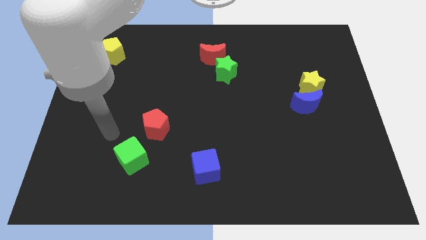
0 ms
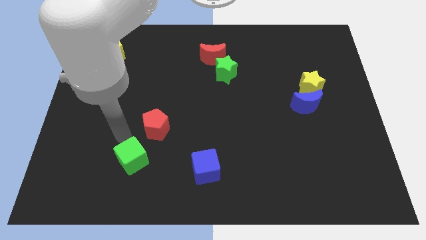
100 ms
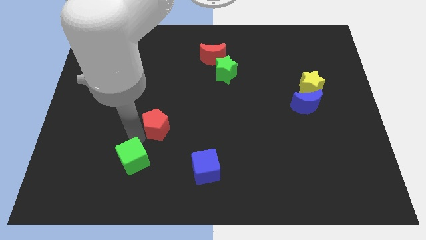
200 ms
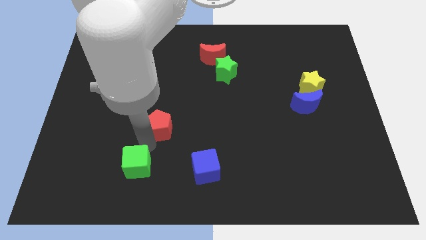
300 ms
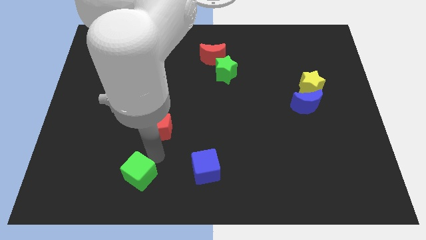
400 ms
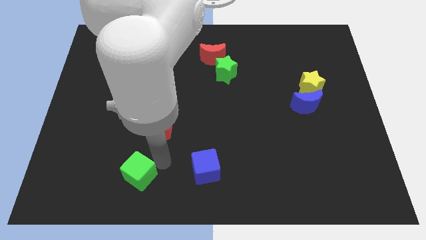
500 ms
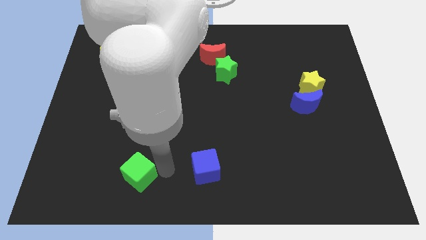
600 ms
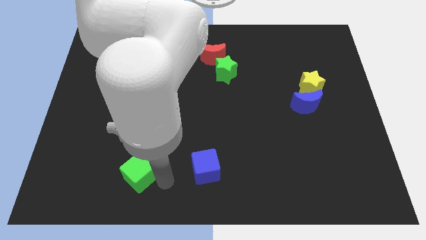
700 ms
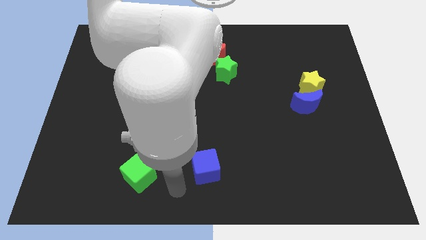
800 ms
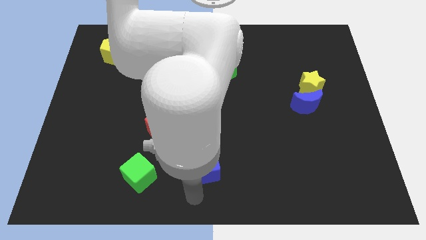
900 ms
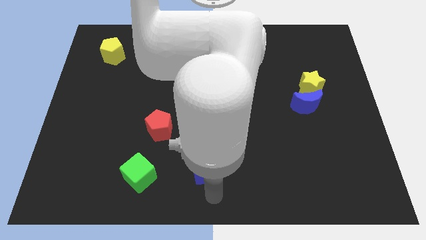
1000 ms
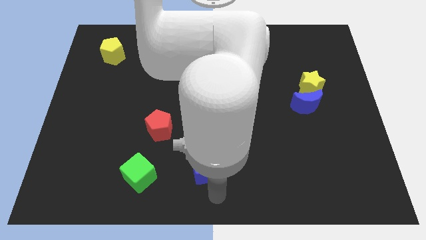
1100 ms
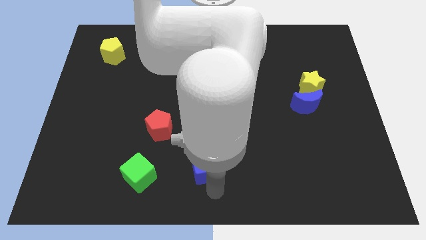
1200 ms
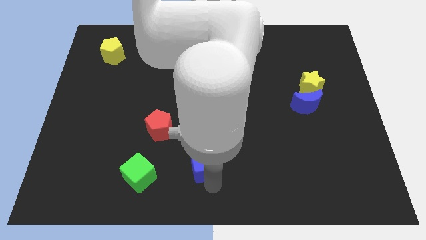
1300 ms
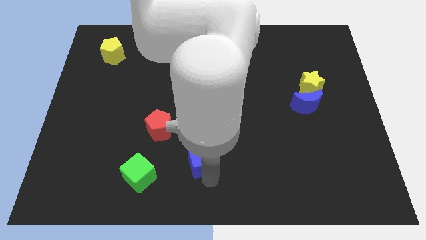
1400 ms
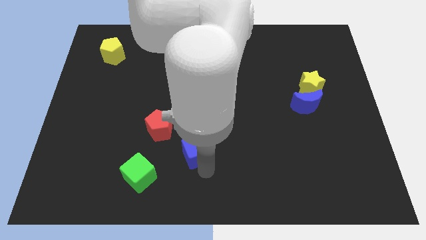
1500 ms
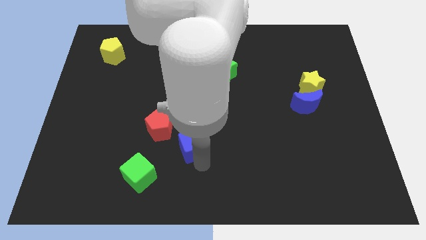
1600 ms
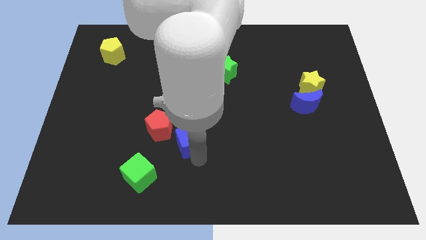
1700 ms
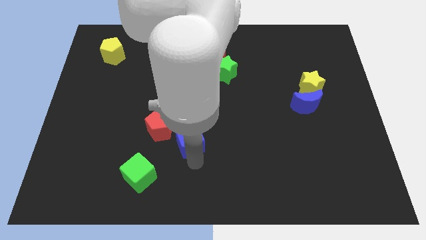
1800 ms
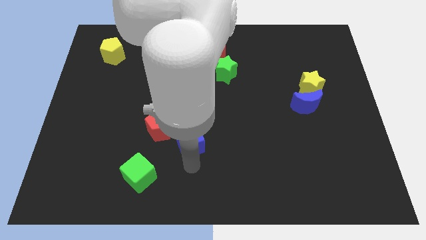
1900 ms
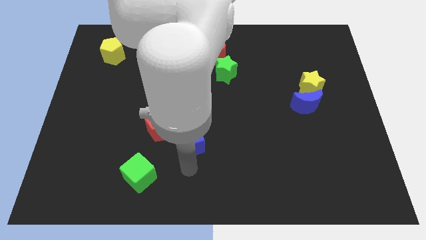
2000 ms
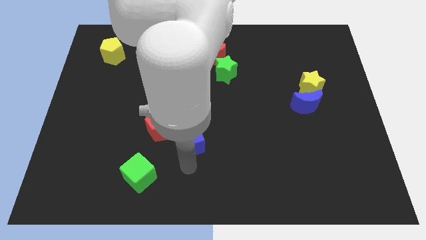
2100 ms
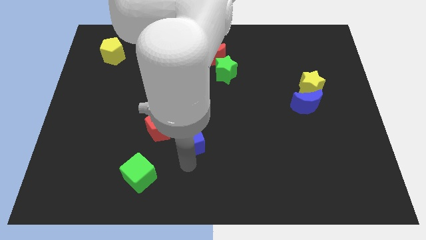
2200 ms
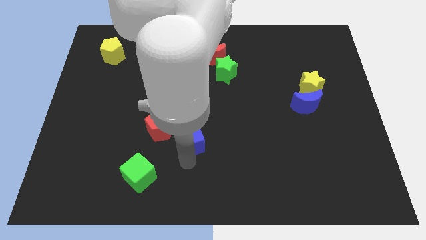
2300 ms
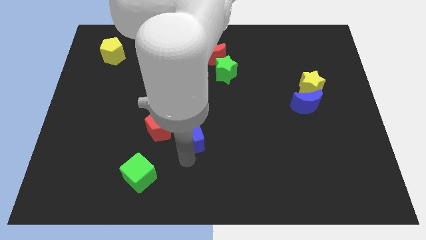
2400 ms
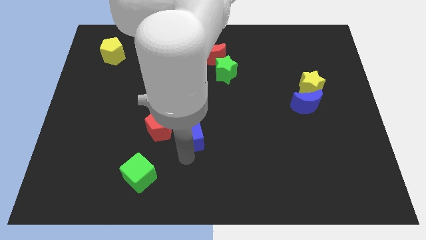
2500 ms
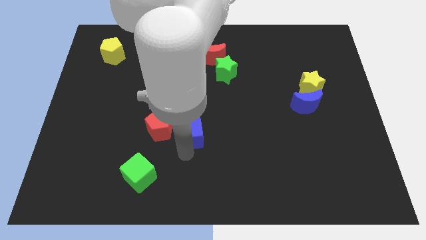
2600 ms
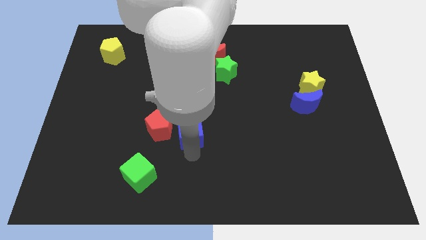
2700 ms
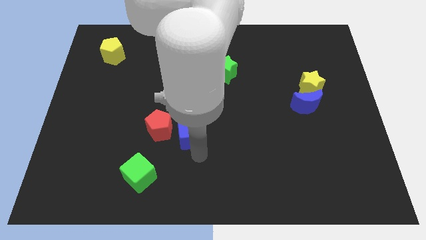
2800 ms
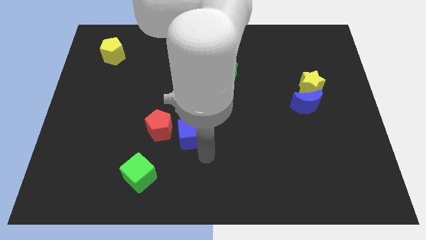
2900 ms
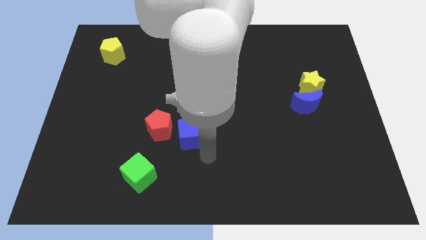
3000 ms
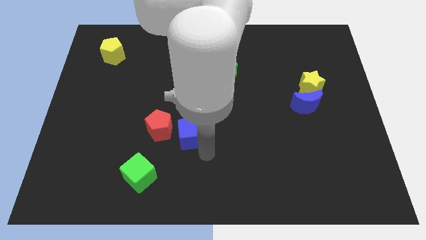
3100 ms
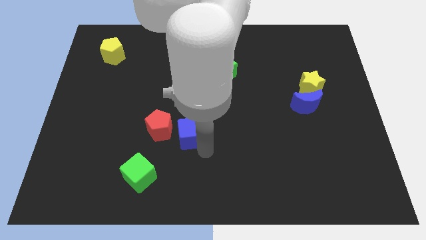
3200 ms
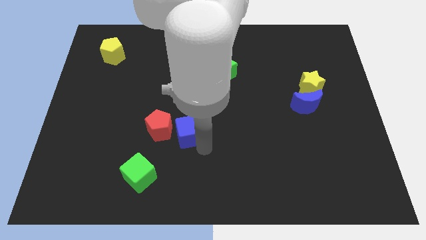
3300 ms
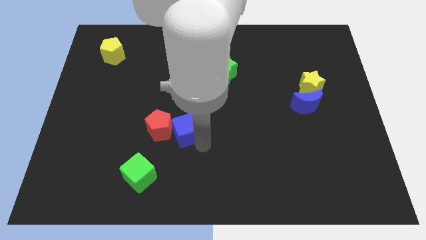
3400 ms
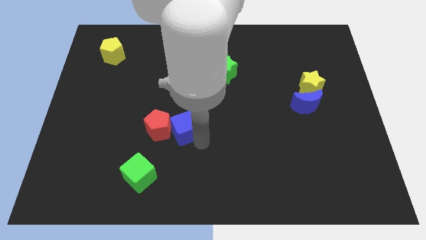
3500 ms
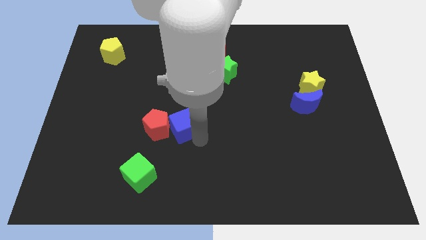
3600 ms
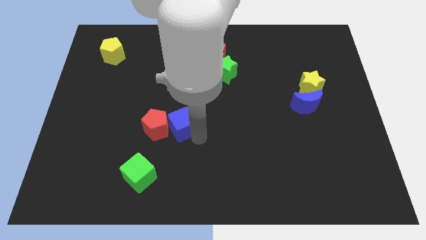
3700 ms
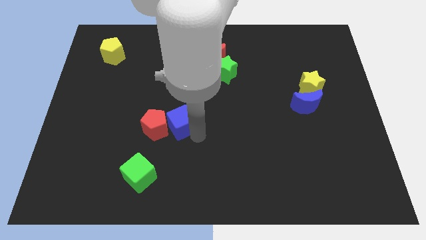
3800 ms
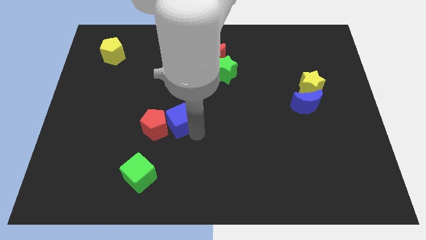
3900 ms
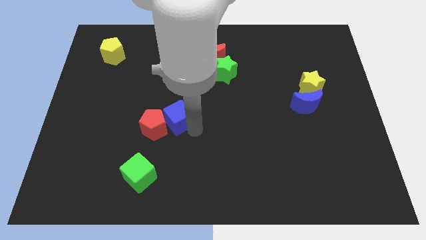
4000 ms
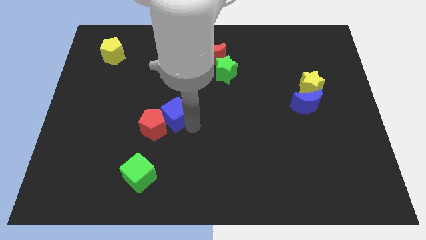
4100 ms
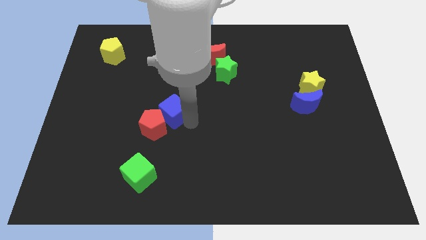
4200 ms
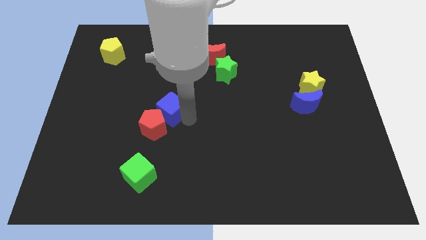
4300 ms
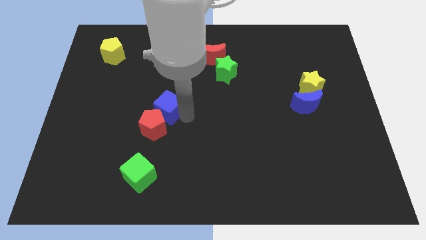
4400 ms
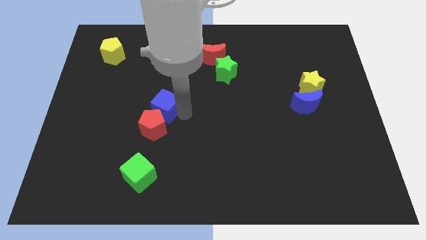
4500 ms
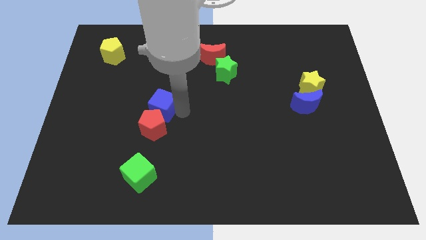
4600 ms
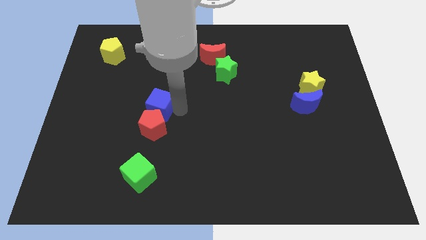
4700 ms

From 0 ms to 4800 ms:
put the blue cube to the top left of the red pentagon

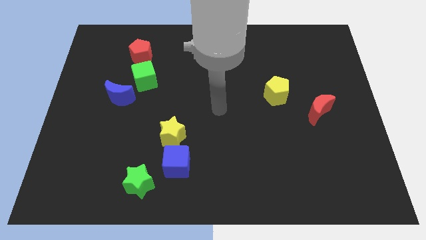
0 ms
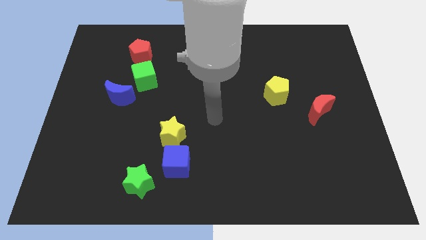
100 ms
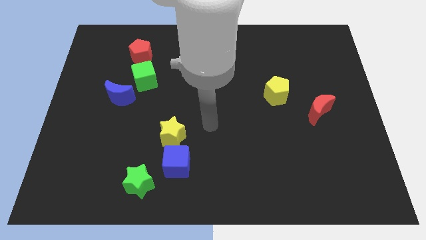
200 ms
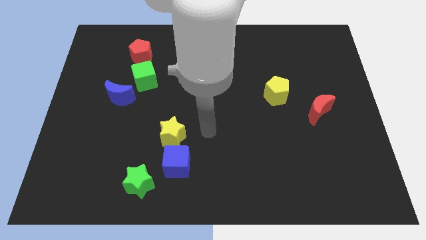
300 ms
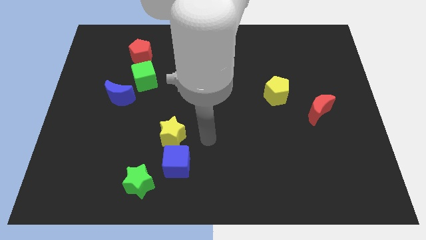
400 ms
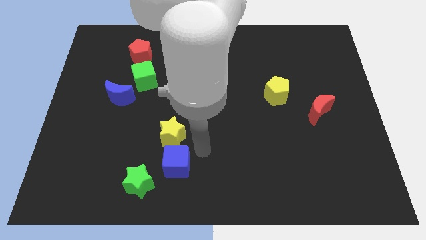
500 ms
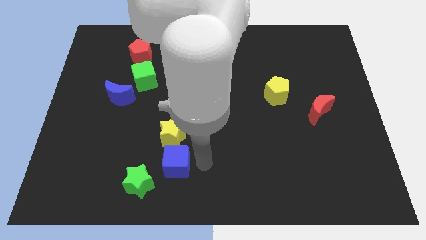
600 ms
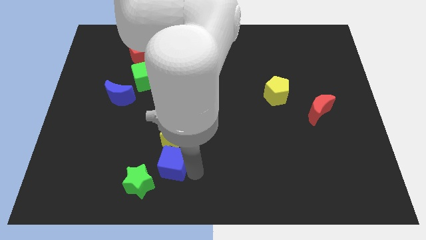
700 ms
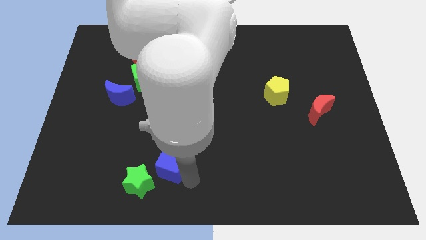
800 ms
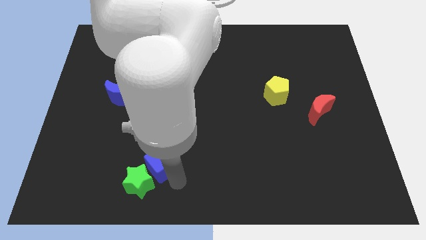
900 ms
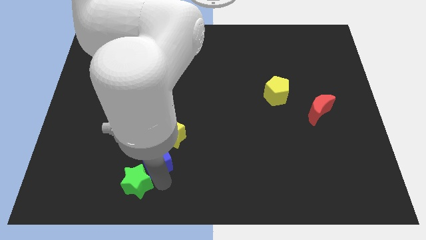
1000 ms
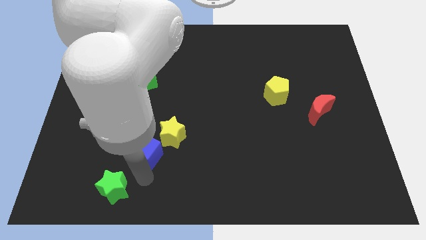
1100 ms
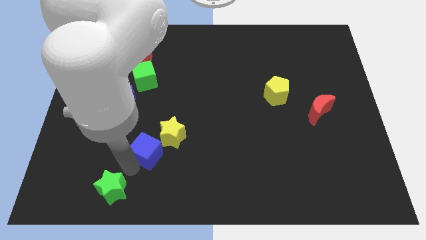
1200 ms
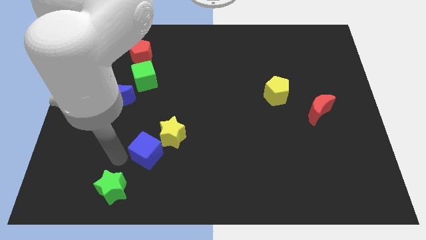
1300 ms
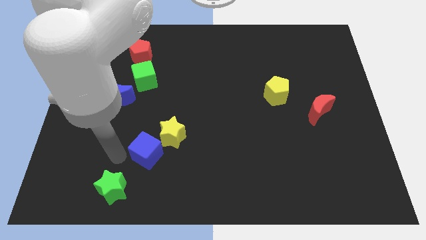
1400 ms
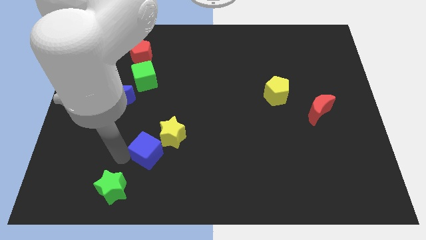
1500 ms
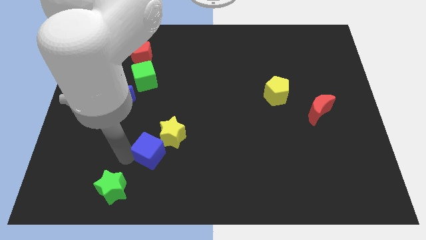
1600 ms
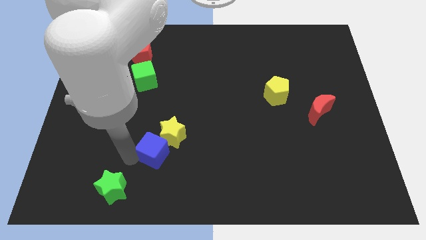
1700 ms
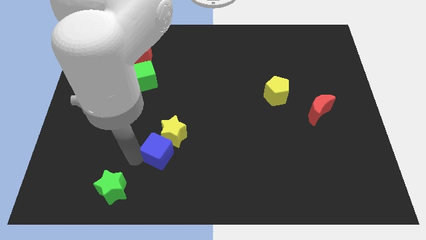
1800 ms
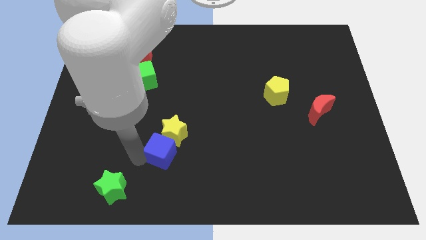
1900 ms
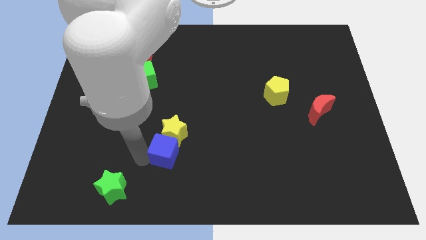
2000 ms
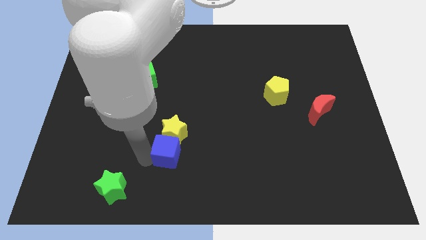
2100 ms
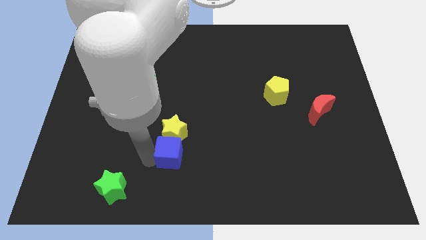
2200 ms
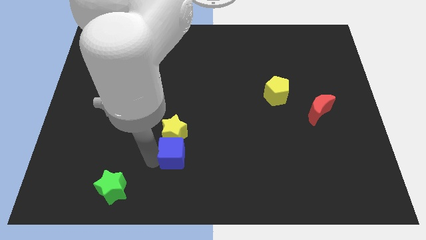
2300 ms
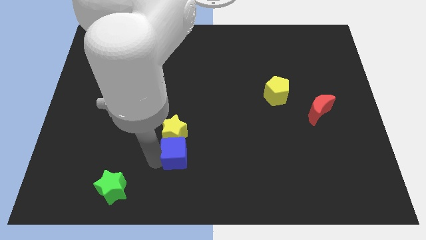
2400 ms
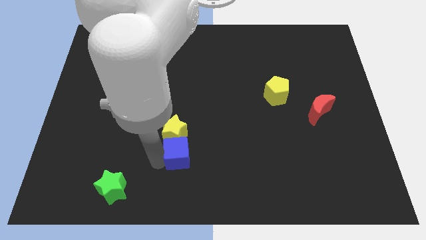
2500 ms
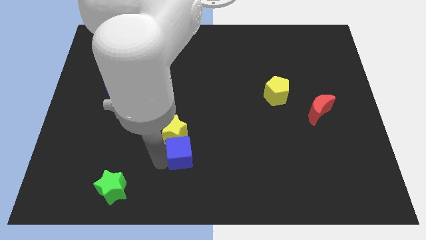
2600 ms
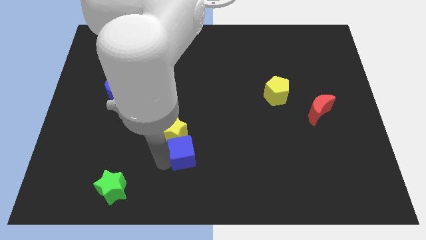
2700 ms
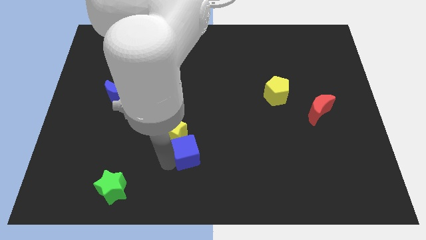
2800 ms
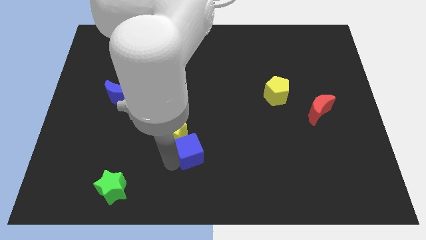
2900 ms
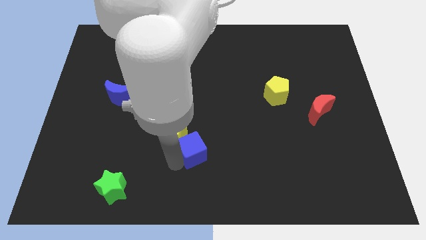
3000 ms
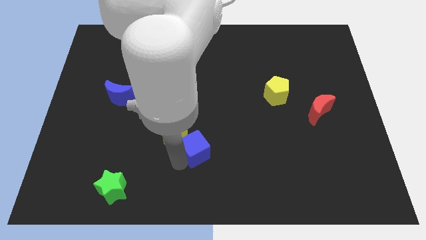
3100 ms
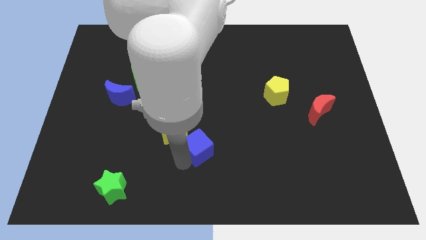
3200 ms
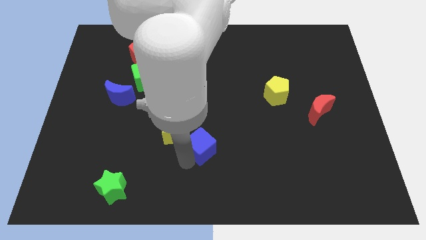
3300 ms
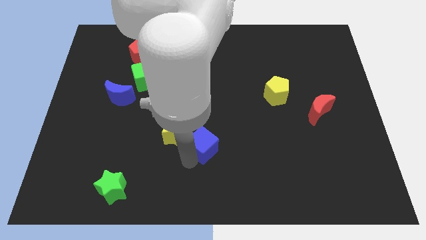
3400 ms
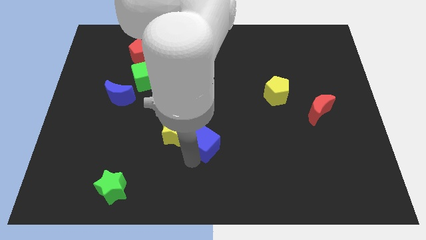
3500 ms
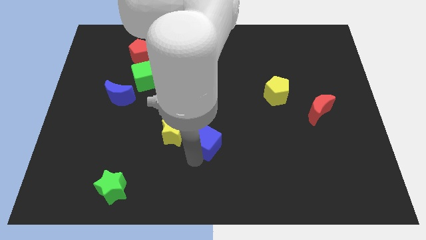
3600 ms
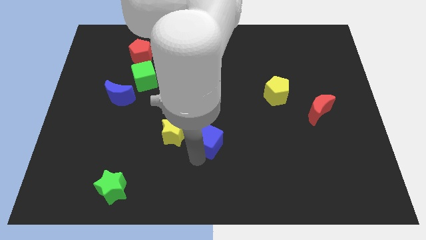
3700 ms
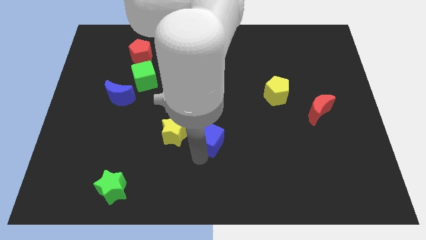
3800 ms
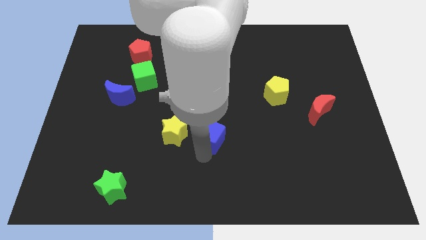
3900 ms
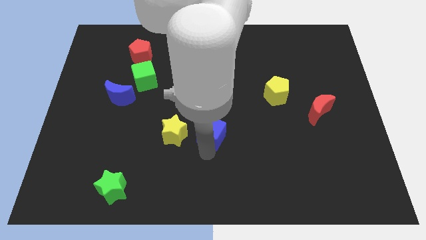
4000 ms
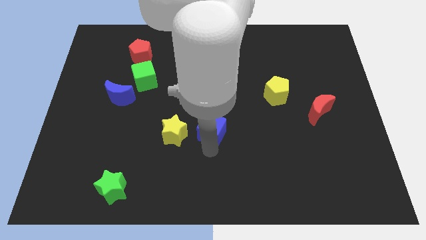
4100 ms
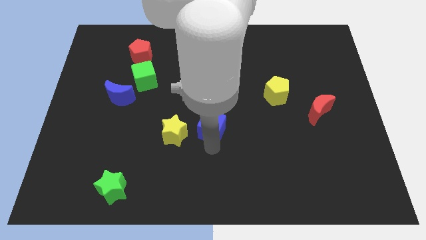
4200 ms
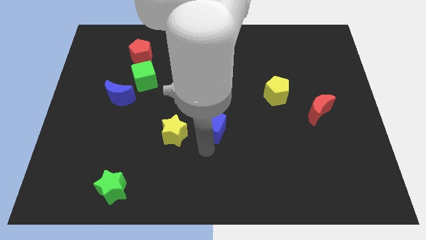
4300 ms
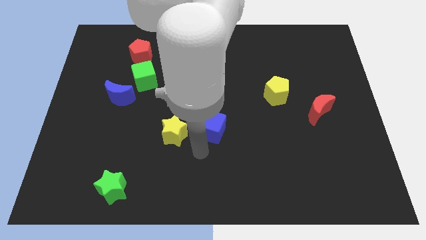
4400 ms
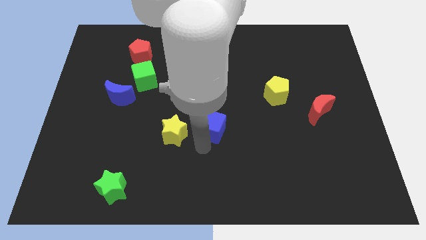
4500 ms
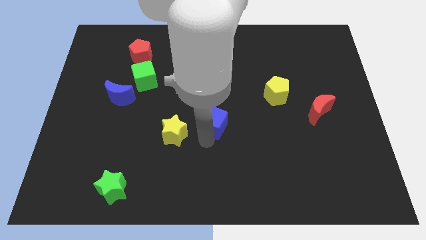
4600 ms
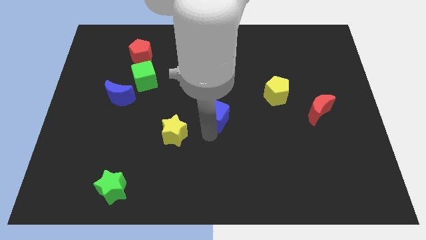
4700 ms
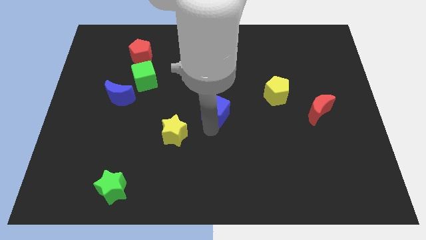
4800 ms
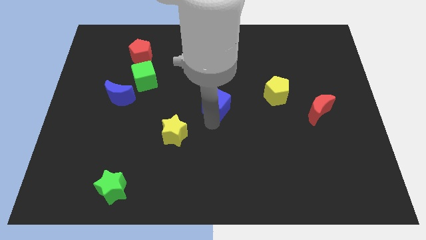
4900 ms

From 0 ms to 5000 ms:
push the blue cube to the left of the yellow pentagon
